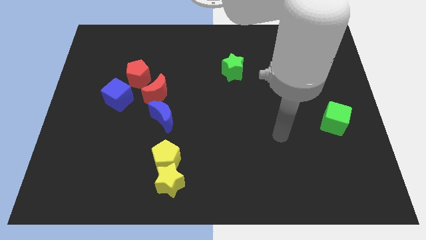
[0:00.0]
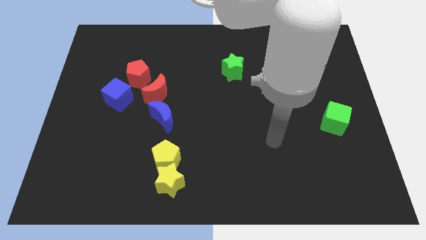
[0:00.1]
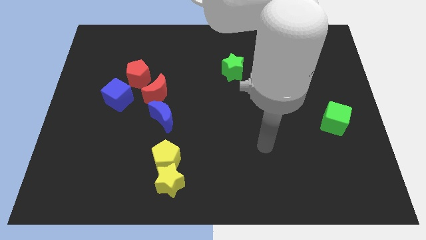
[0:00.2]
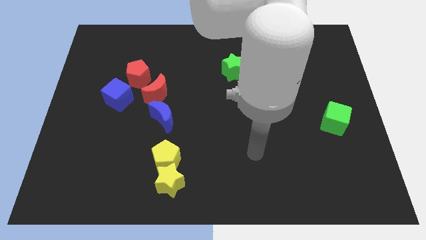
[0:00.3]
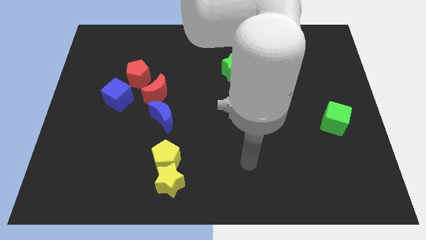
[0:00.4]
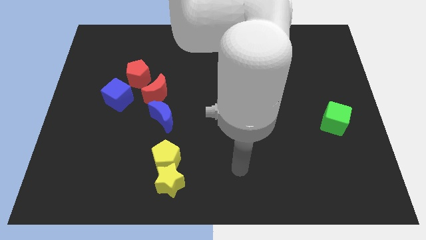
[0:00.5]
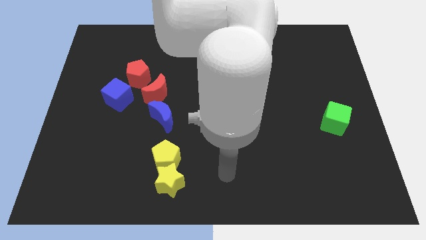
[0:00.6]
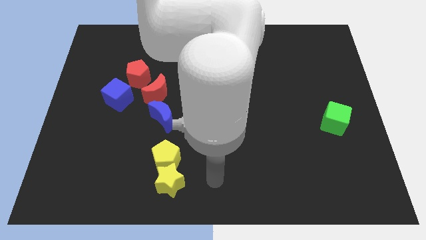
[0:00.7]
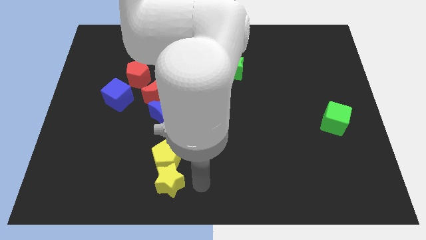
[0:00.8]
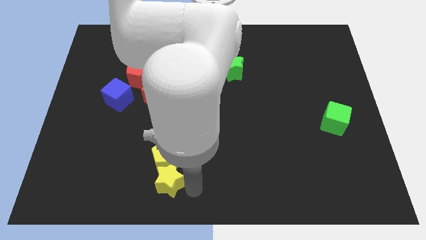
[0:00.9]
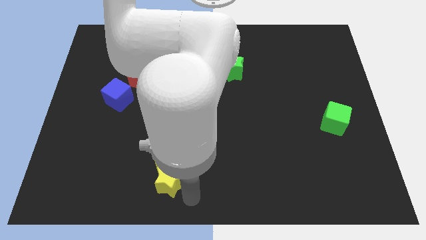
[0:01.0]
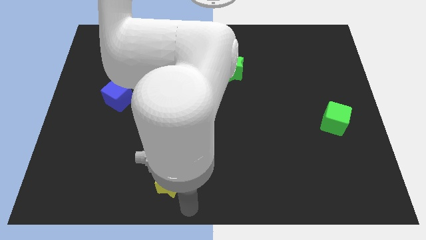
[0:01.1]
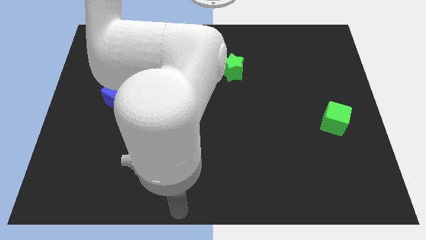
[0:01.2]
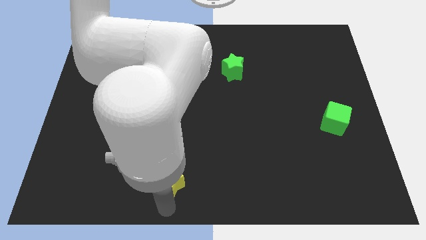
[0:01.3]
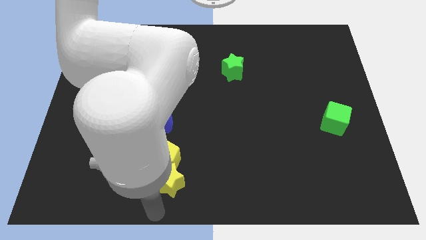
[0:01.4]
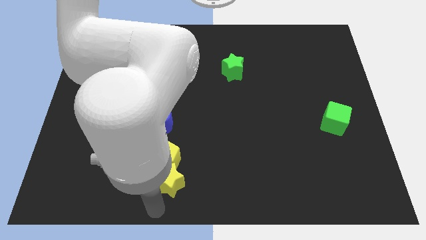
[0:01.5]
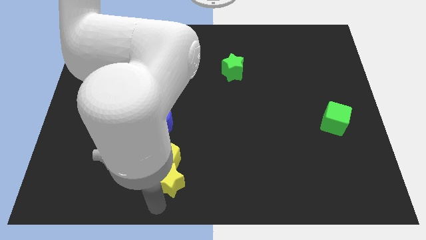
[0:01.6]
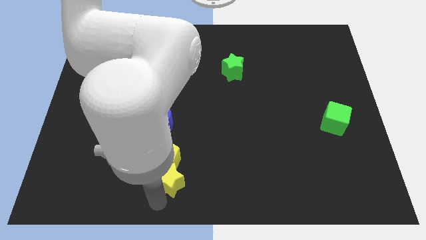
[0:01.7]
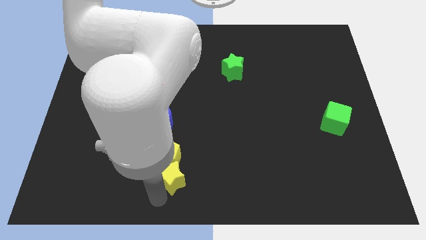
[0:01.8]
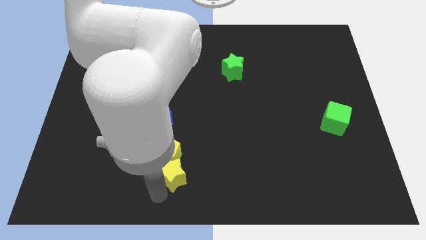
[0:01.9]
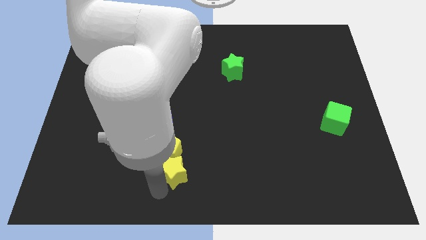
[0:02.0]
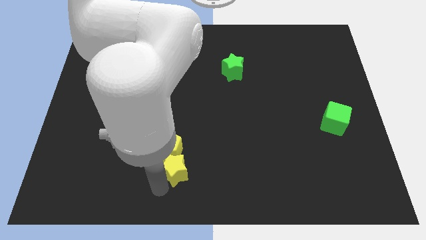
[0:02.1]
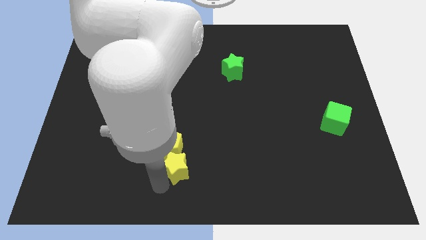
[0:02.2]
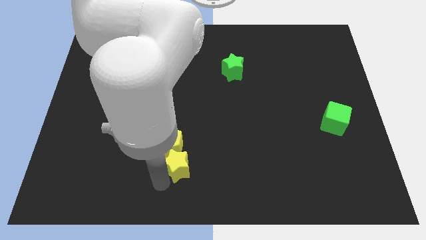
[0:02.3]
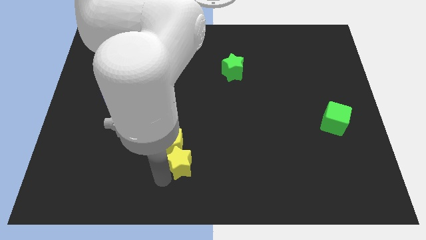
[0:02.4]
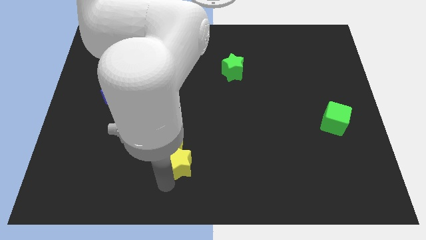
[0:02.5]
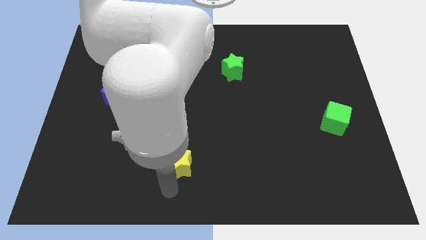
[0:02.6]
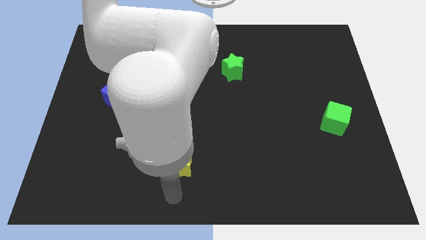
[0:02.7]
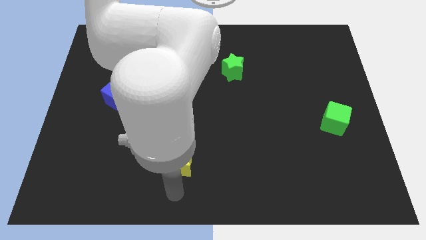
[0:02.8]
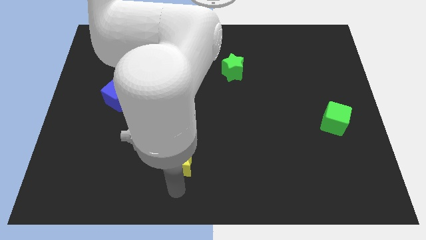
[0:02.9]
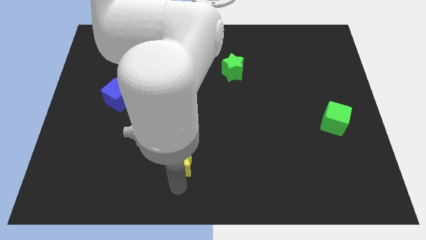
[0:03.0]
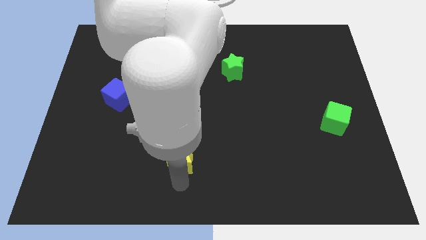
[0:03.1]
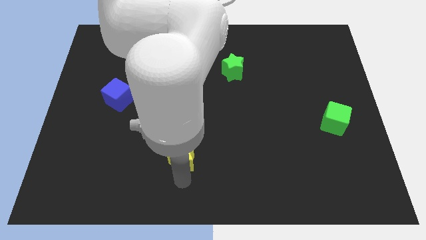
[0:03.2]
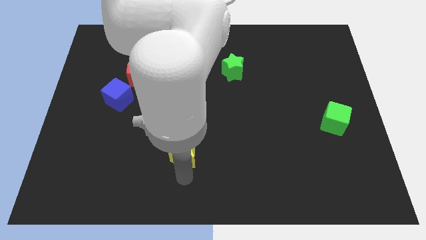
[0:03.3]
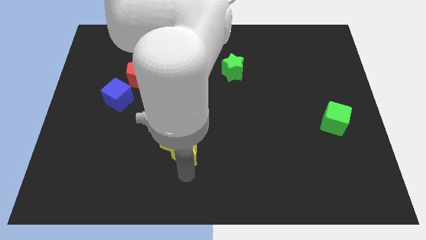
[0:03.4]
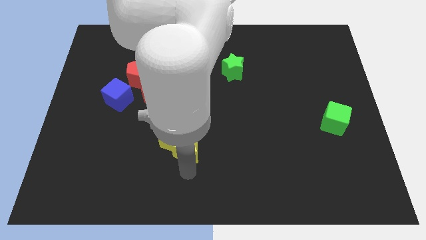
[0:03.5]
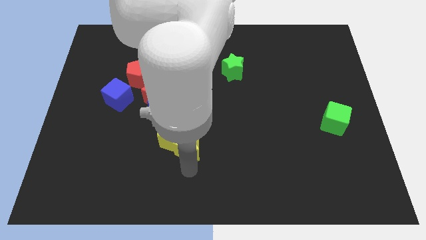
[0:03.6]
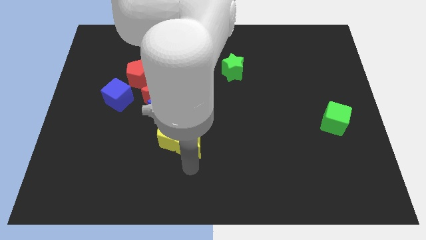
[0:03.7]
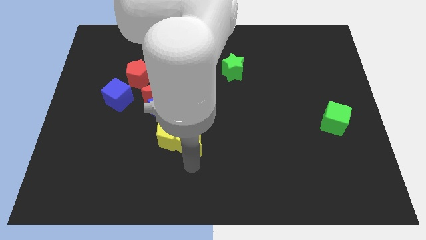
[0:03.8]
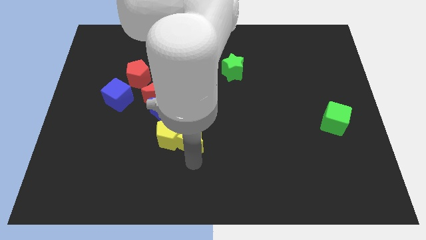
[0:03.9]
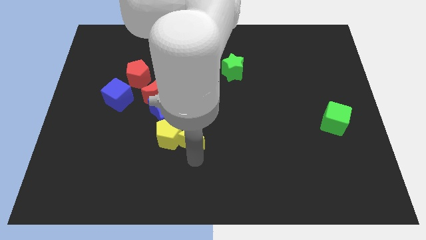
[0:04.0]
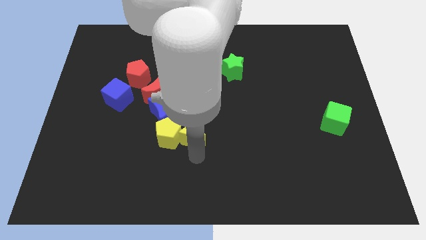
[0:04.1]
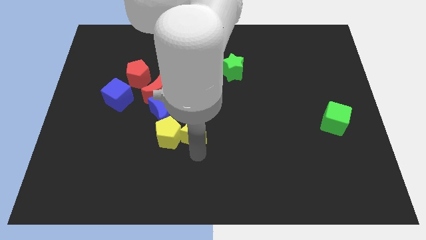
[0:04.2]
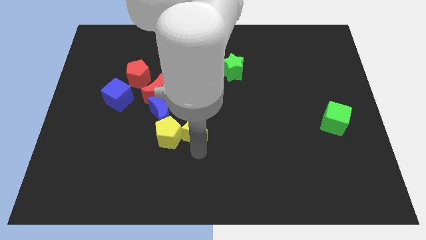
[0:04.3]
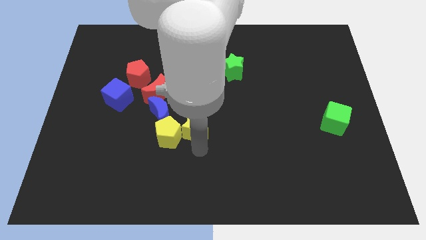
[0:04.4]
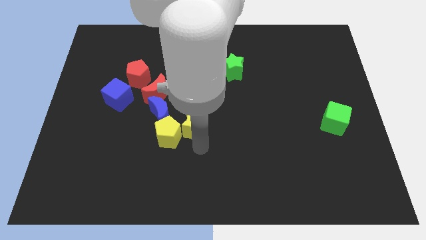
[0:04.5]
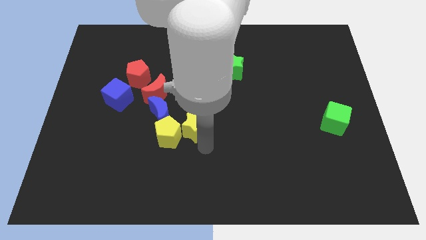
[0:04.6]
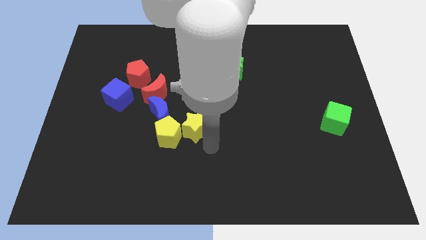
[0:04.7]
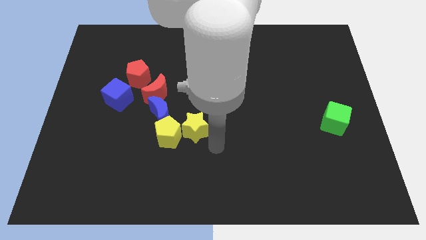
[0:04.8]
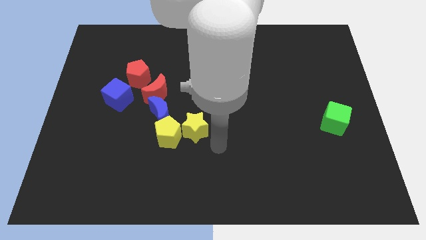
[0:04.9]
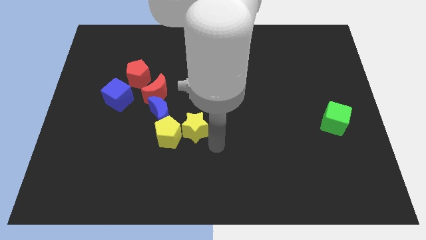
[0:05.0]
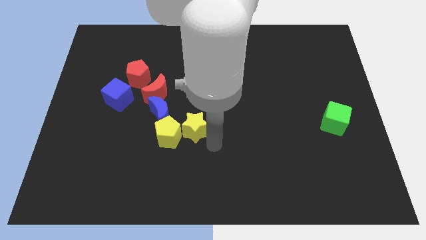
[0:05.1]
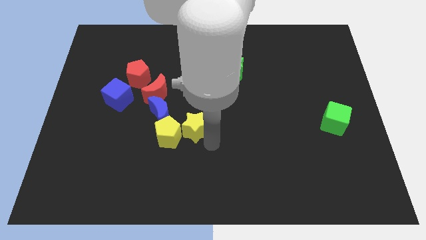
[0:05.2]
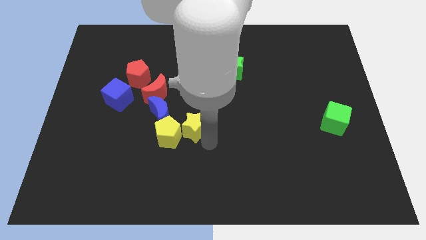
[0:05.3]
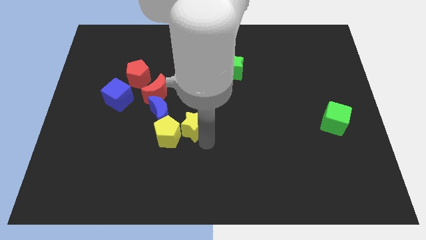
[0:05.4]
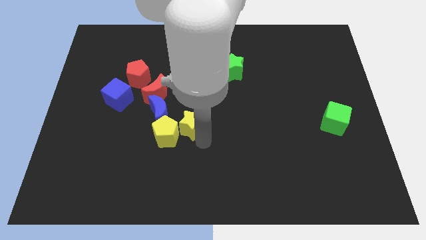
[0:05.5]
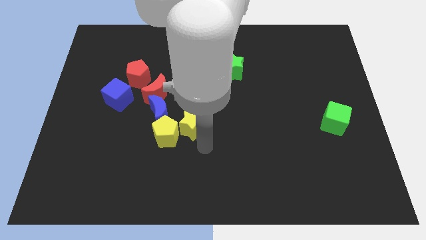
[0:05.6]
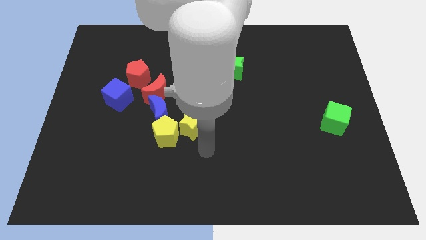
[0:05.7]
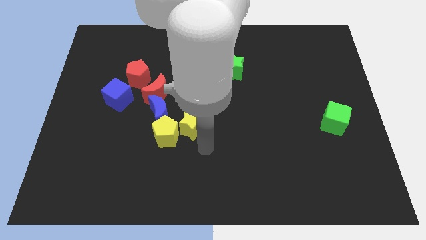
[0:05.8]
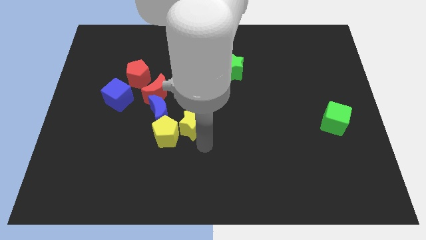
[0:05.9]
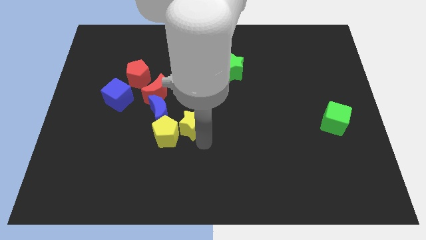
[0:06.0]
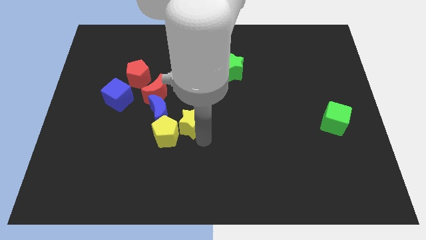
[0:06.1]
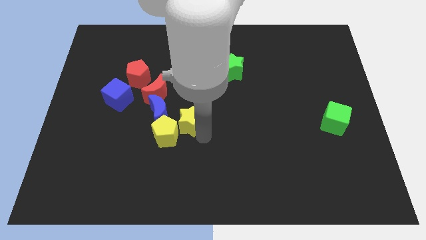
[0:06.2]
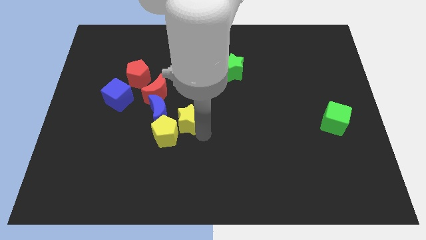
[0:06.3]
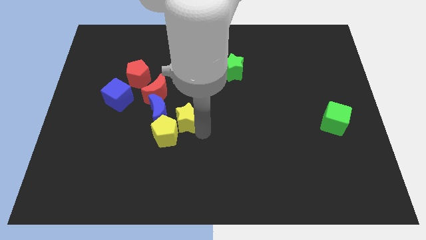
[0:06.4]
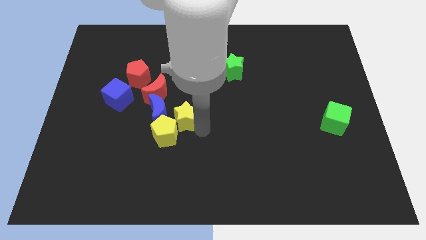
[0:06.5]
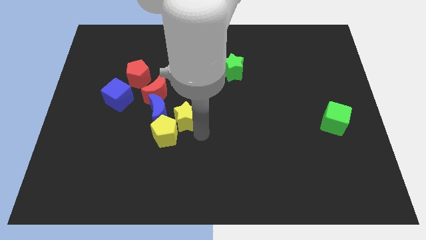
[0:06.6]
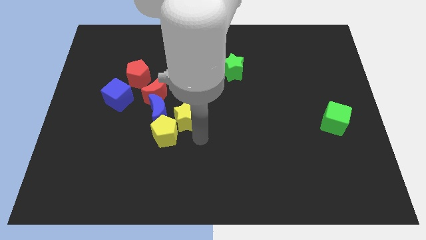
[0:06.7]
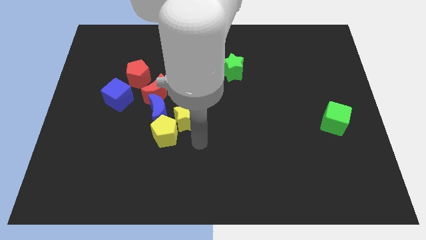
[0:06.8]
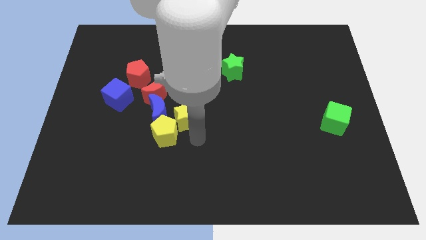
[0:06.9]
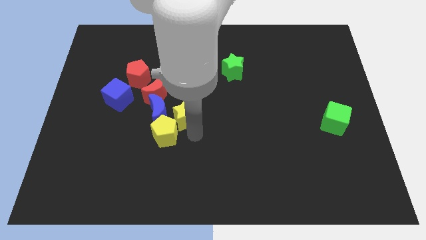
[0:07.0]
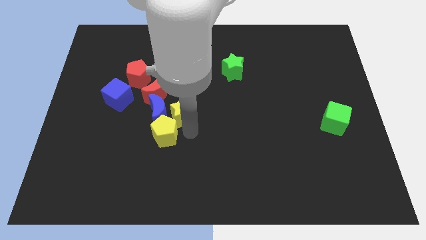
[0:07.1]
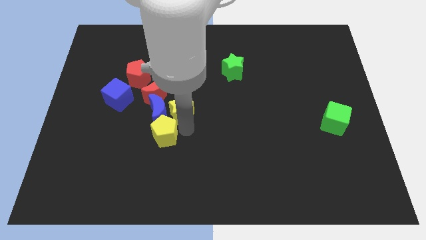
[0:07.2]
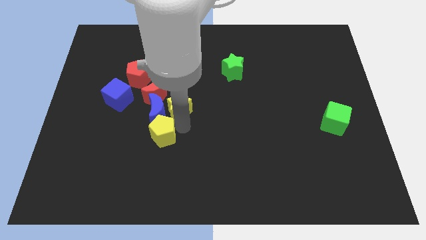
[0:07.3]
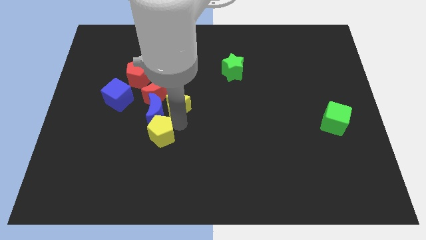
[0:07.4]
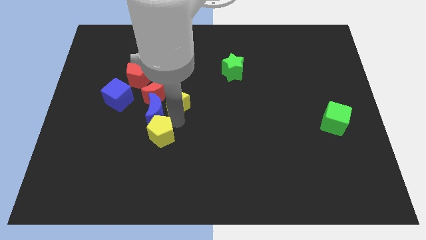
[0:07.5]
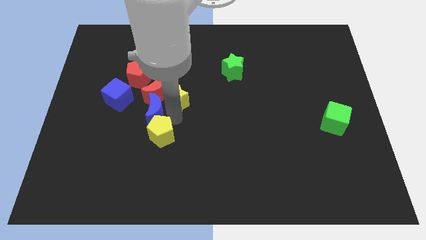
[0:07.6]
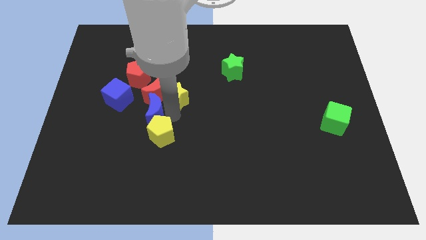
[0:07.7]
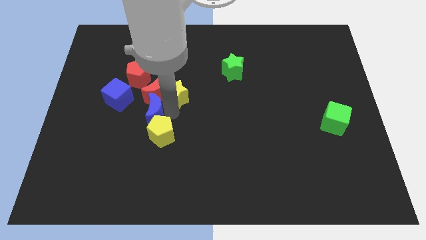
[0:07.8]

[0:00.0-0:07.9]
put the yellow star diagonally up and to the right of the red moon

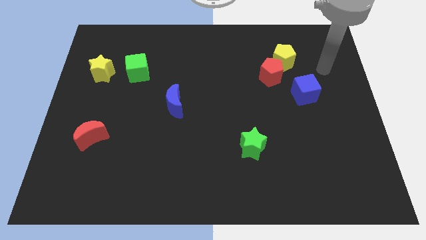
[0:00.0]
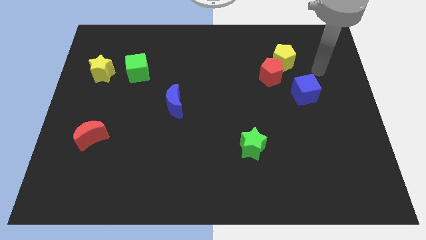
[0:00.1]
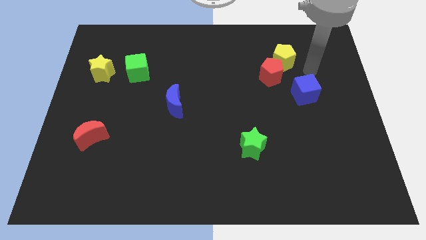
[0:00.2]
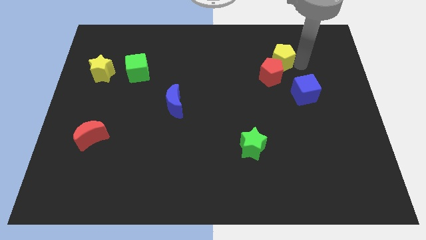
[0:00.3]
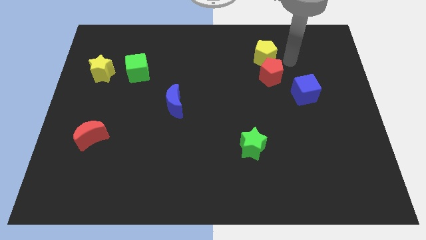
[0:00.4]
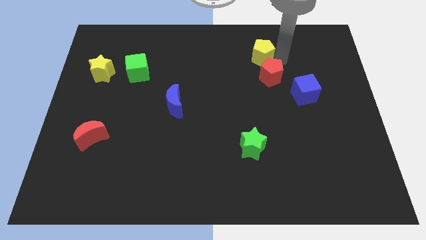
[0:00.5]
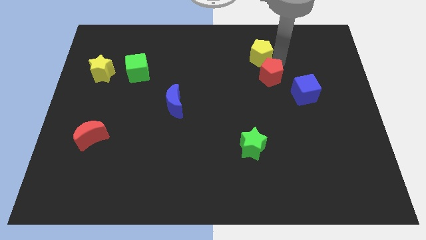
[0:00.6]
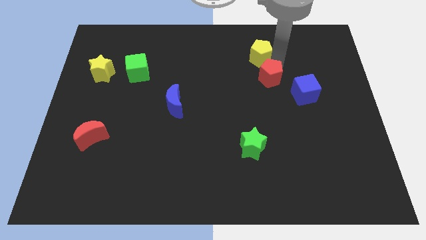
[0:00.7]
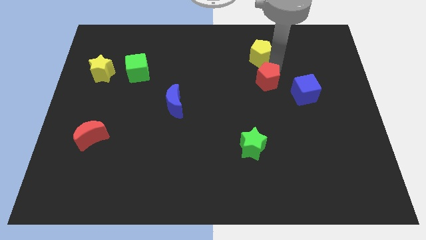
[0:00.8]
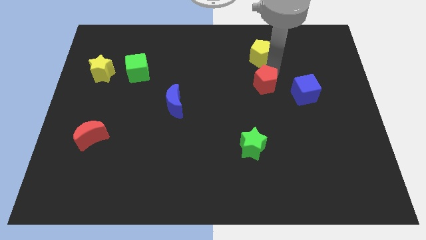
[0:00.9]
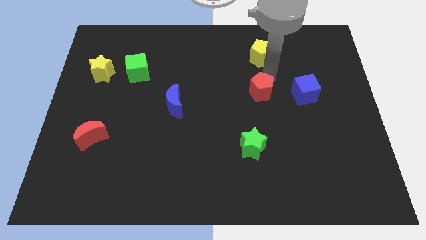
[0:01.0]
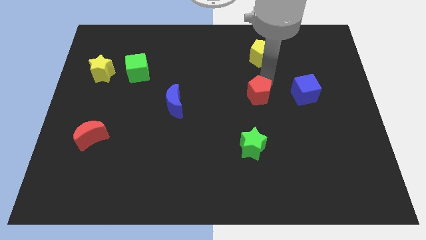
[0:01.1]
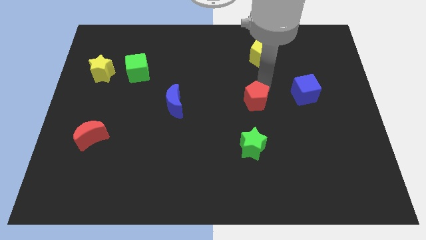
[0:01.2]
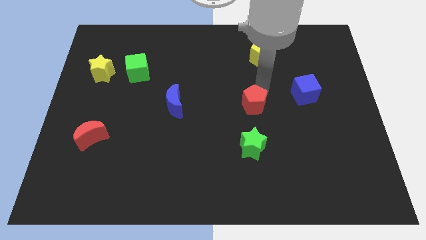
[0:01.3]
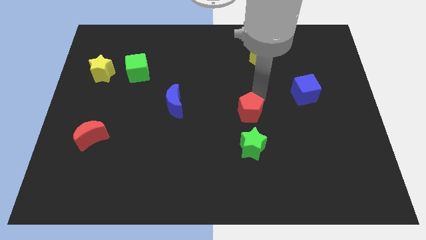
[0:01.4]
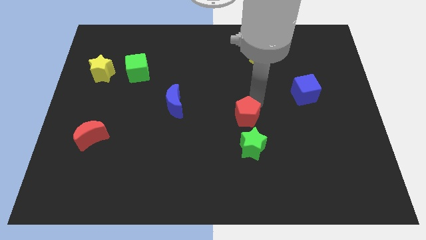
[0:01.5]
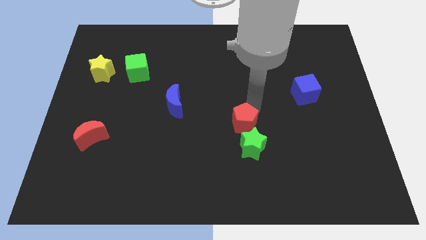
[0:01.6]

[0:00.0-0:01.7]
push the red pentagon to the top left of the green star
